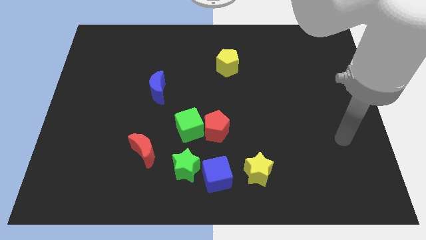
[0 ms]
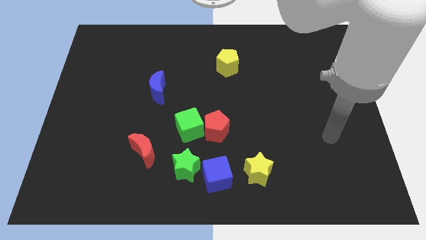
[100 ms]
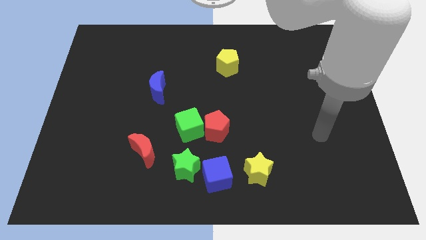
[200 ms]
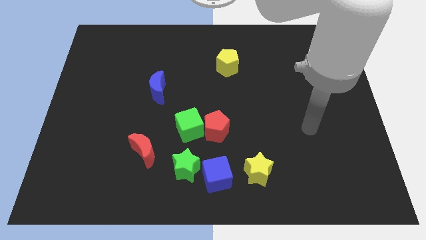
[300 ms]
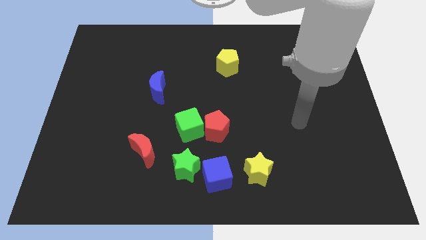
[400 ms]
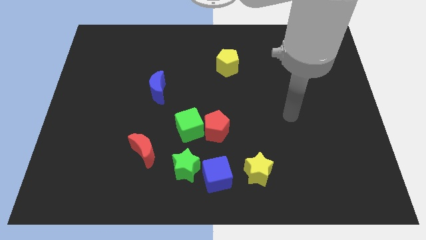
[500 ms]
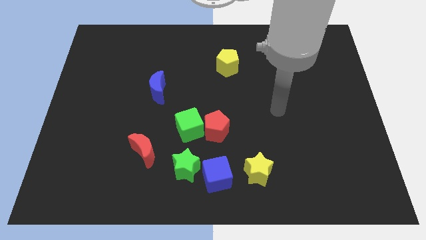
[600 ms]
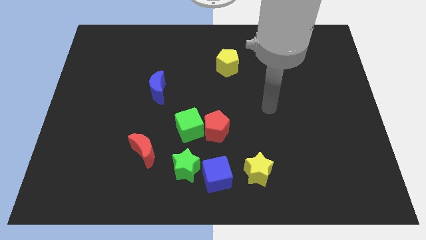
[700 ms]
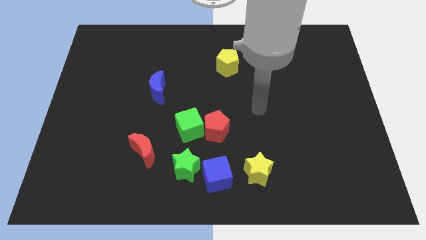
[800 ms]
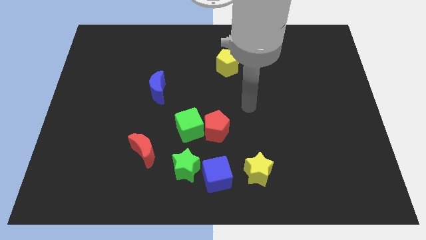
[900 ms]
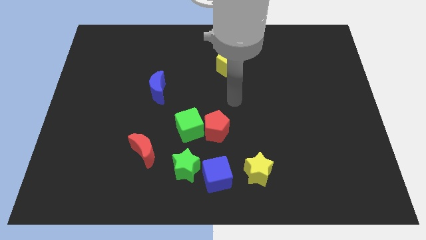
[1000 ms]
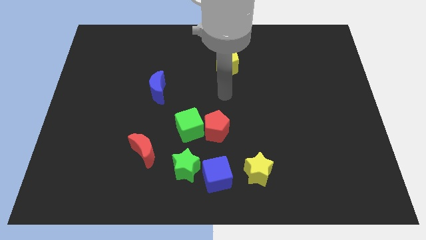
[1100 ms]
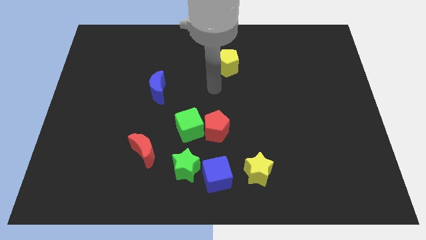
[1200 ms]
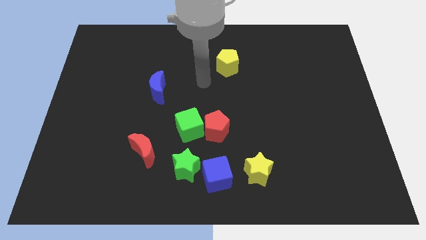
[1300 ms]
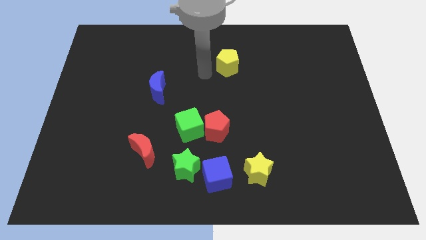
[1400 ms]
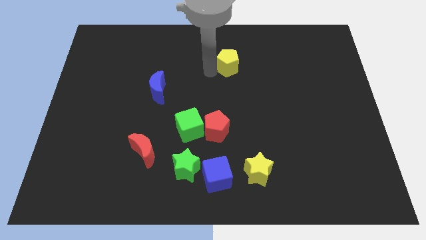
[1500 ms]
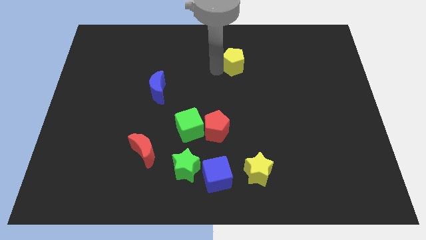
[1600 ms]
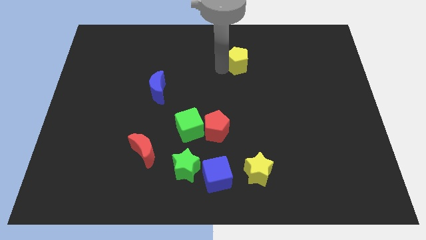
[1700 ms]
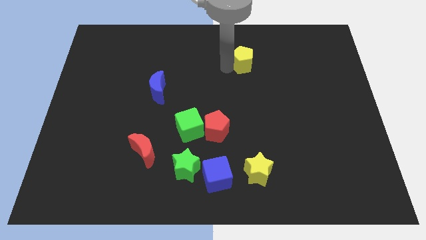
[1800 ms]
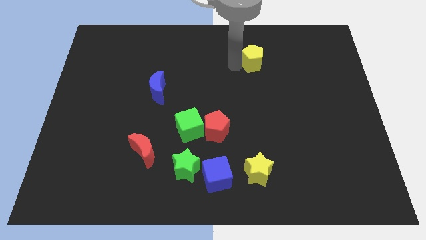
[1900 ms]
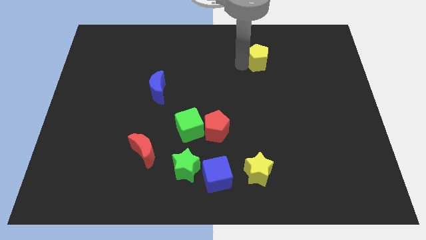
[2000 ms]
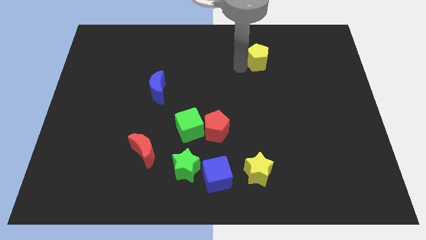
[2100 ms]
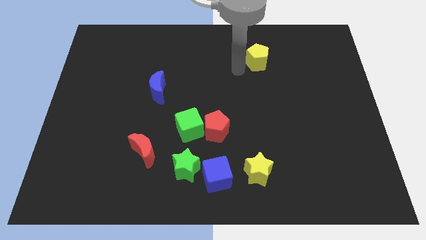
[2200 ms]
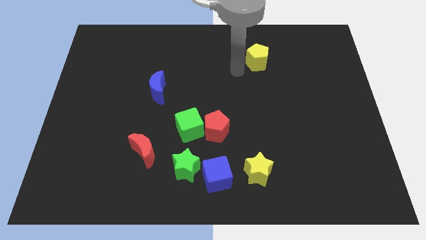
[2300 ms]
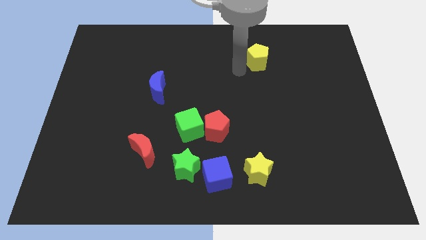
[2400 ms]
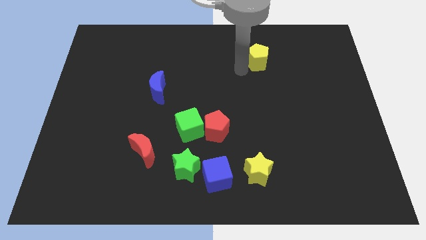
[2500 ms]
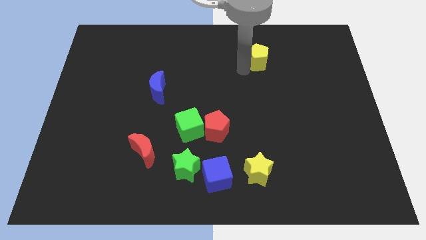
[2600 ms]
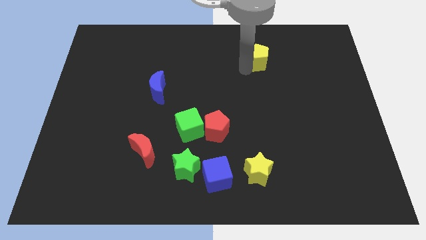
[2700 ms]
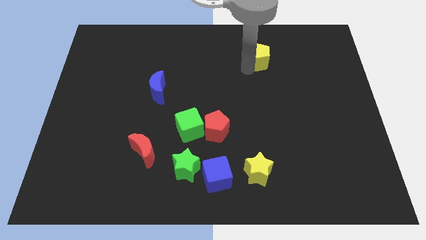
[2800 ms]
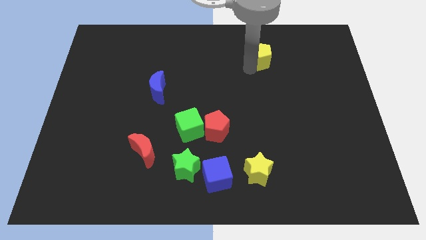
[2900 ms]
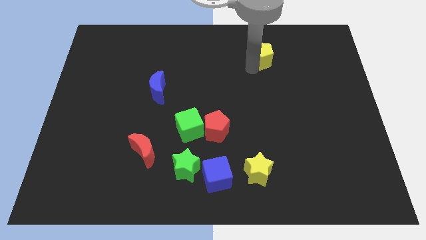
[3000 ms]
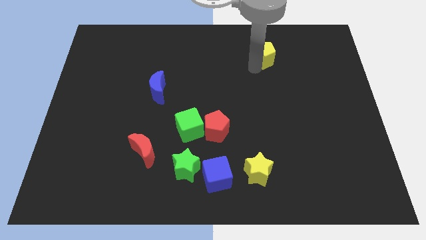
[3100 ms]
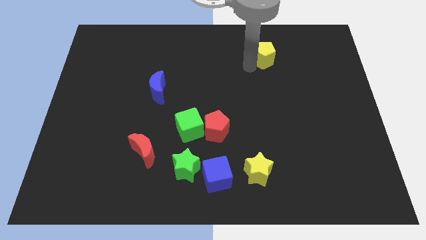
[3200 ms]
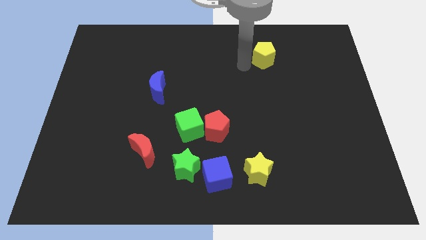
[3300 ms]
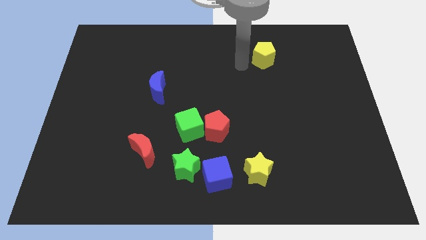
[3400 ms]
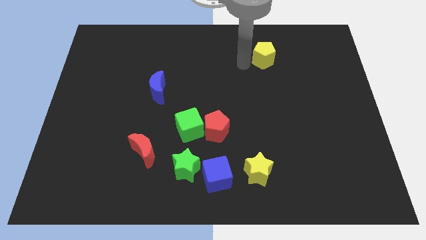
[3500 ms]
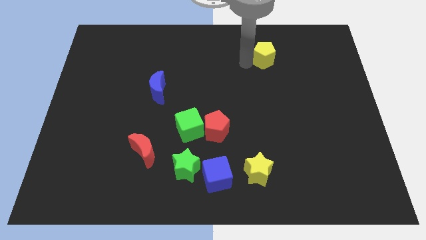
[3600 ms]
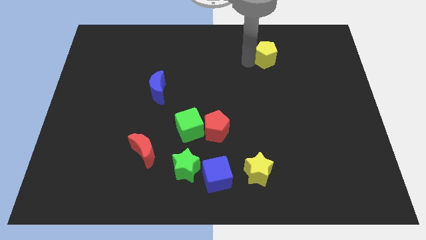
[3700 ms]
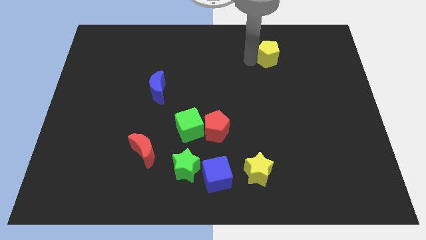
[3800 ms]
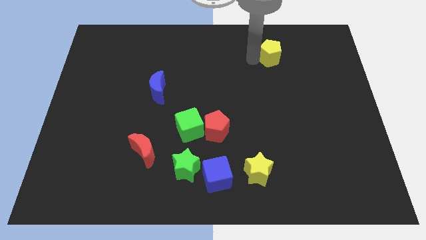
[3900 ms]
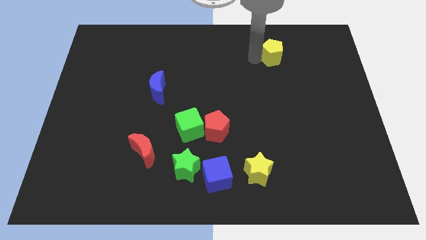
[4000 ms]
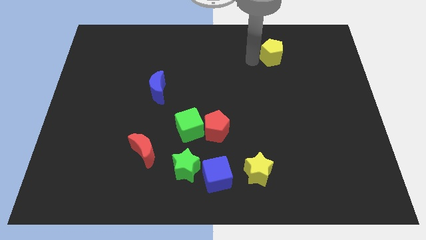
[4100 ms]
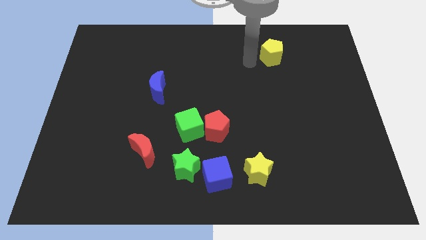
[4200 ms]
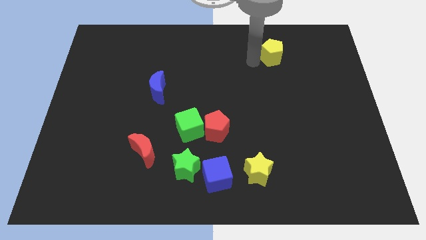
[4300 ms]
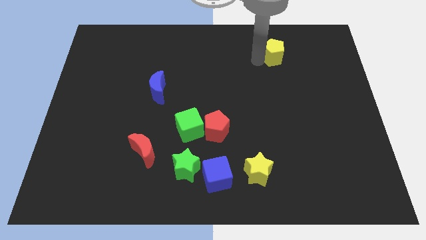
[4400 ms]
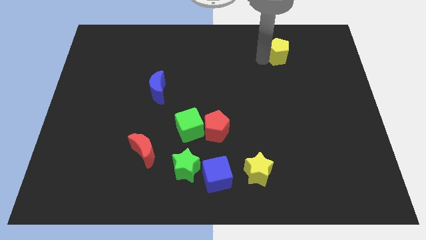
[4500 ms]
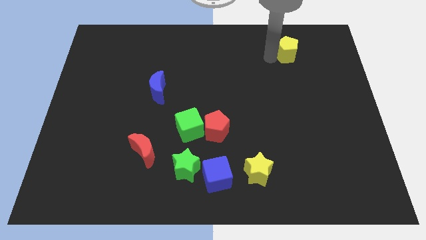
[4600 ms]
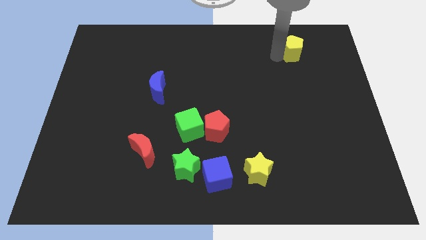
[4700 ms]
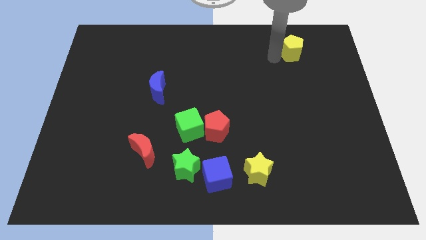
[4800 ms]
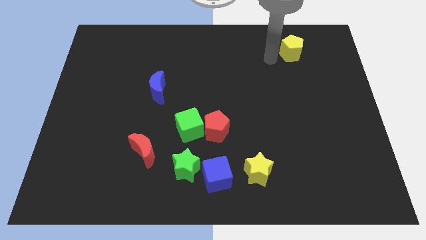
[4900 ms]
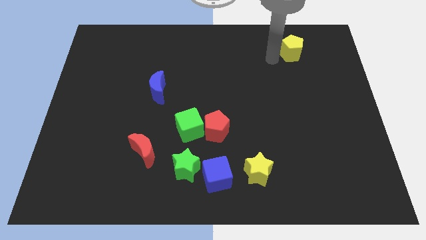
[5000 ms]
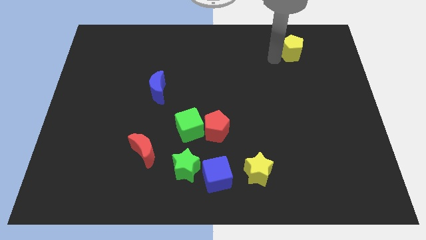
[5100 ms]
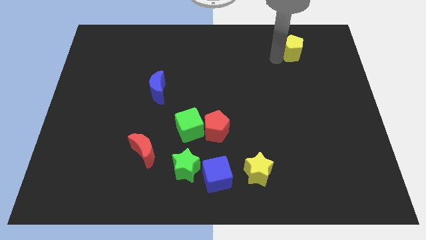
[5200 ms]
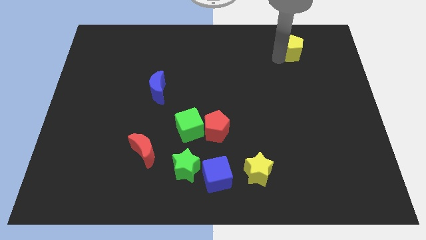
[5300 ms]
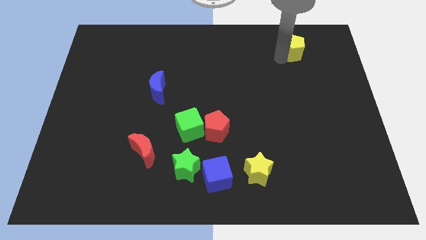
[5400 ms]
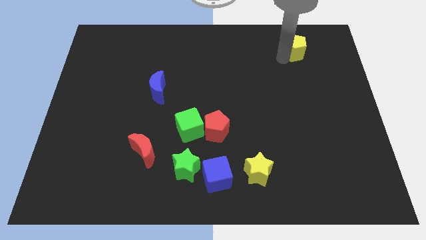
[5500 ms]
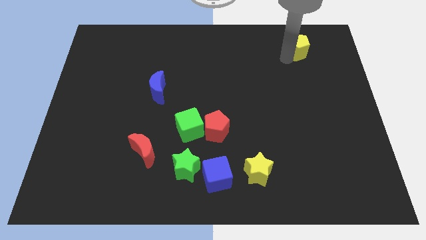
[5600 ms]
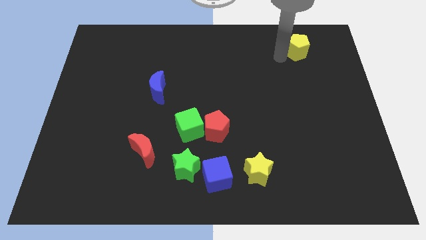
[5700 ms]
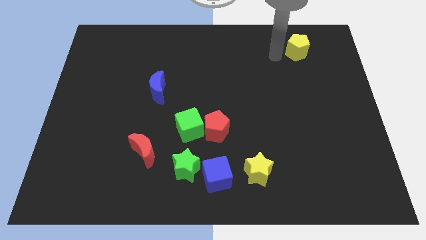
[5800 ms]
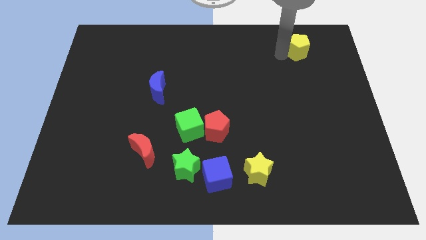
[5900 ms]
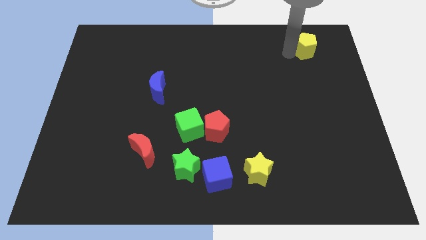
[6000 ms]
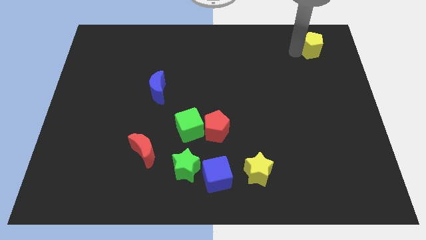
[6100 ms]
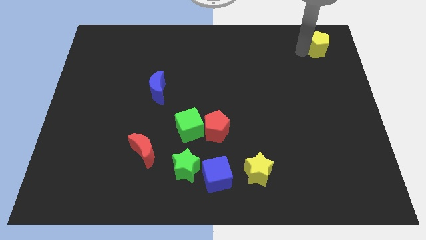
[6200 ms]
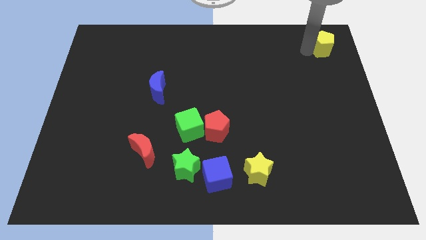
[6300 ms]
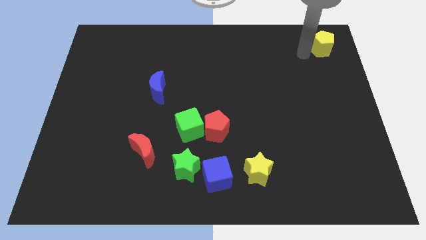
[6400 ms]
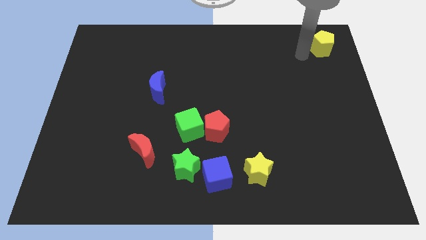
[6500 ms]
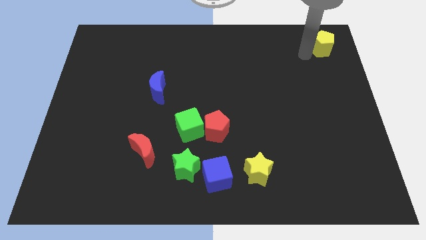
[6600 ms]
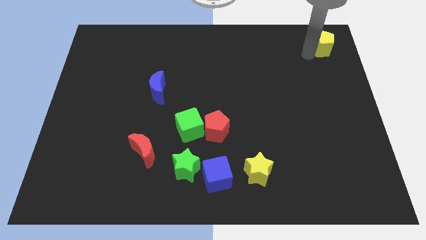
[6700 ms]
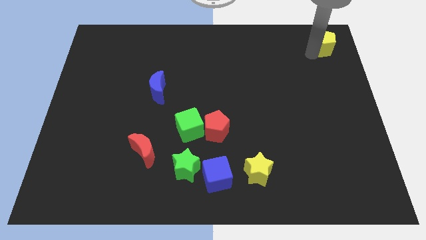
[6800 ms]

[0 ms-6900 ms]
push the yellow pentagon to the top right

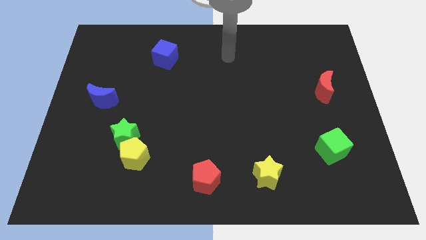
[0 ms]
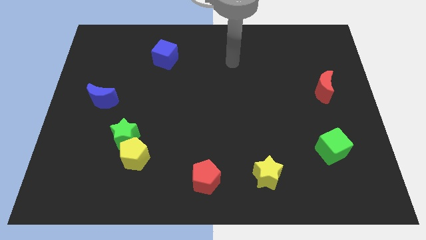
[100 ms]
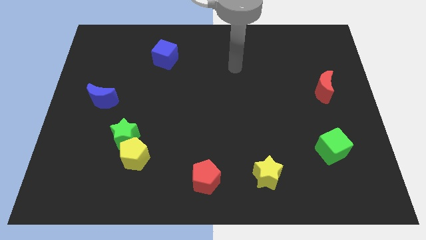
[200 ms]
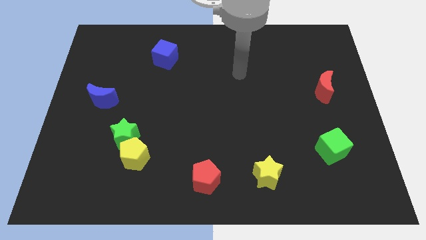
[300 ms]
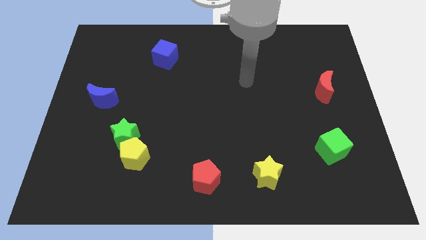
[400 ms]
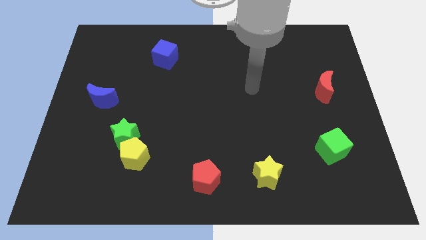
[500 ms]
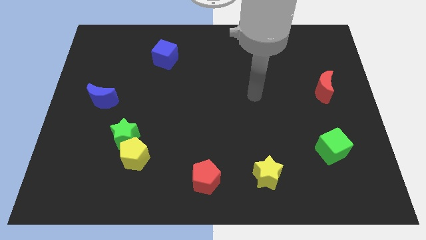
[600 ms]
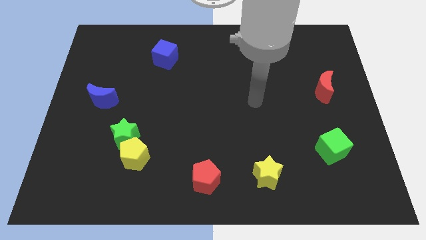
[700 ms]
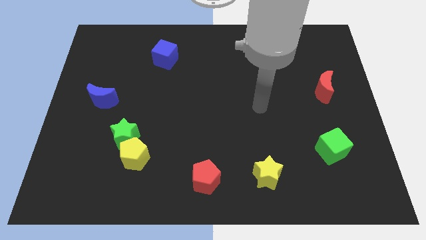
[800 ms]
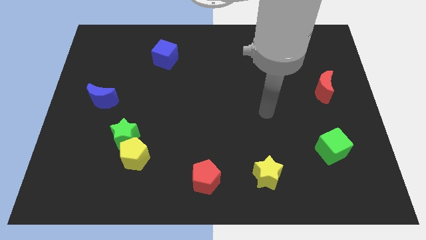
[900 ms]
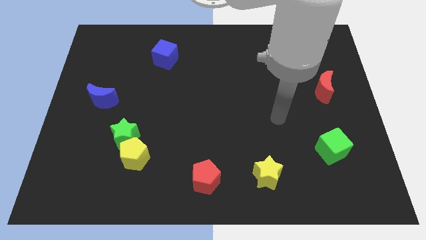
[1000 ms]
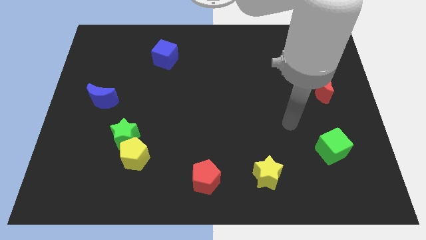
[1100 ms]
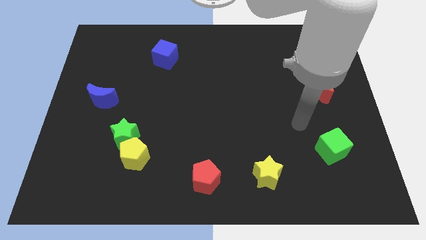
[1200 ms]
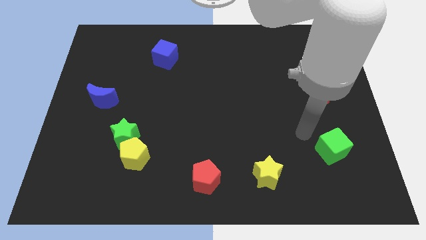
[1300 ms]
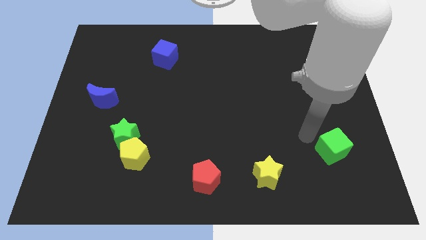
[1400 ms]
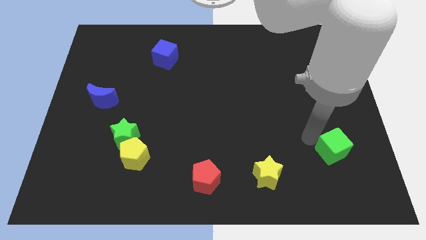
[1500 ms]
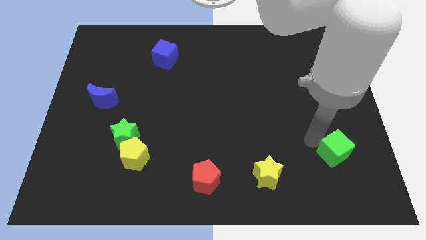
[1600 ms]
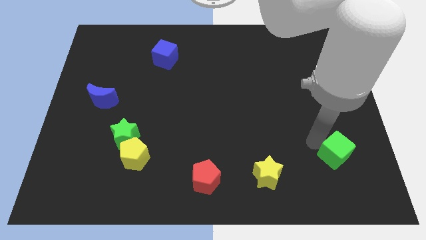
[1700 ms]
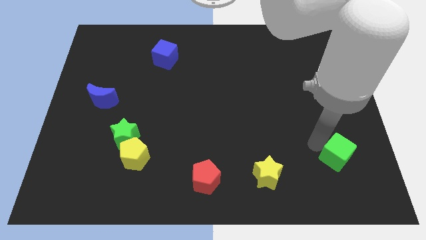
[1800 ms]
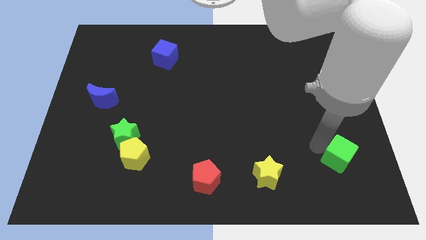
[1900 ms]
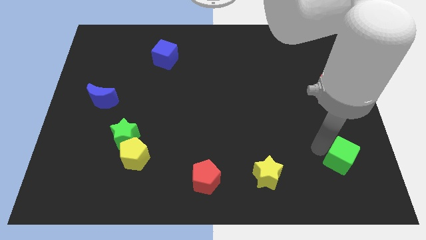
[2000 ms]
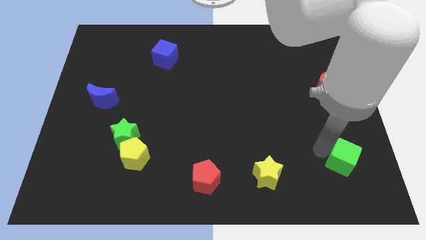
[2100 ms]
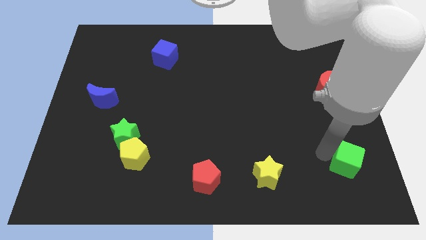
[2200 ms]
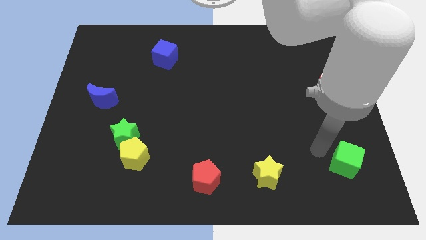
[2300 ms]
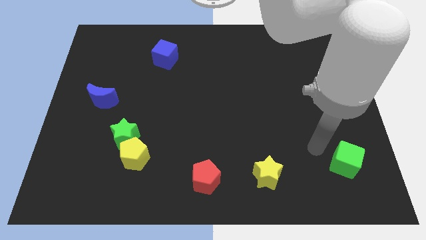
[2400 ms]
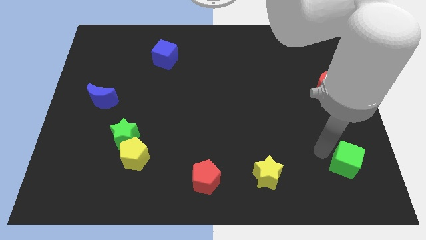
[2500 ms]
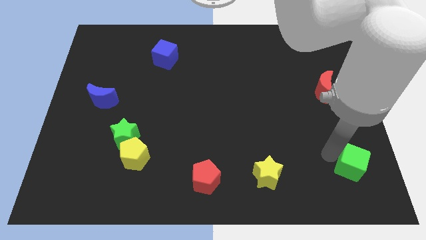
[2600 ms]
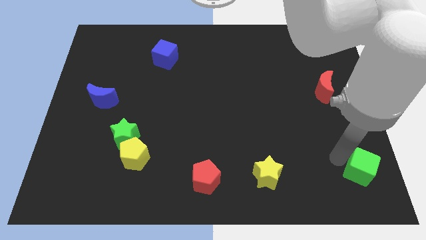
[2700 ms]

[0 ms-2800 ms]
push the green cube to the bottom right corner
